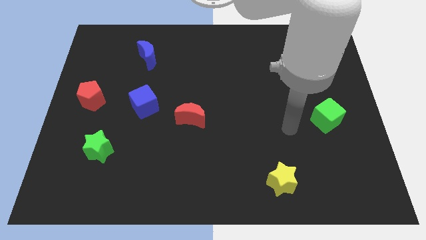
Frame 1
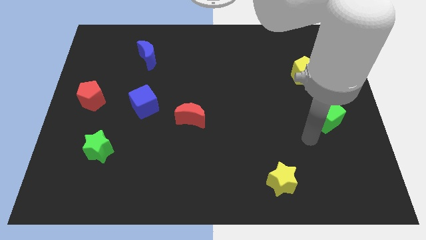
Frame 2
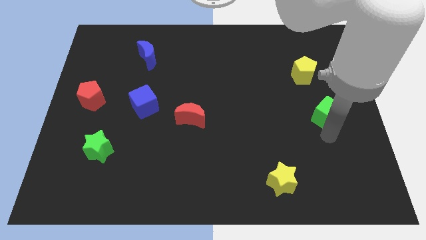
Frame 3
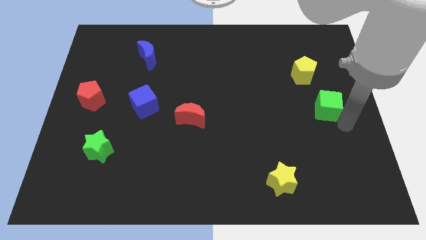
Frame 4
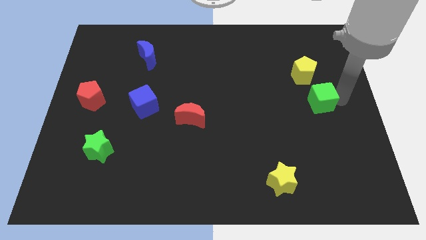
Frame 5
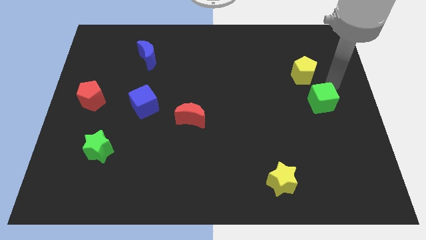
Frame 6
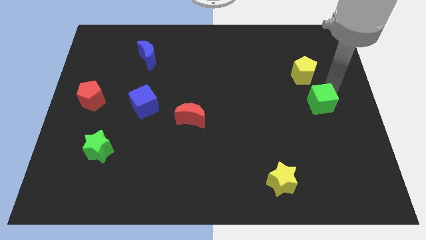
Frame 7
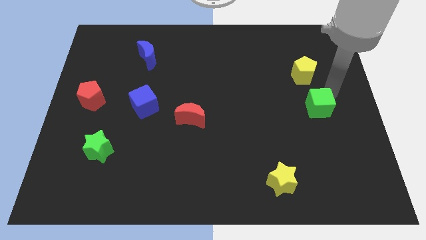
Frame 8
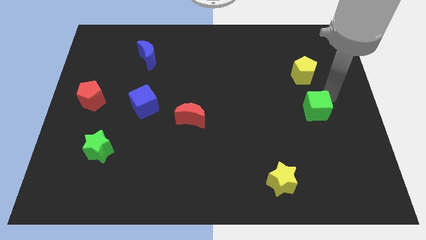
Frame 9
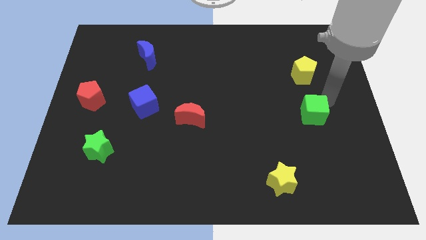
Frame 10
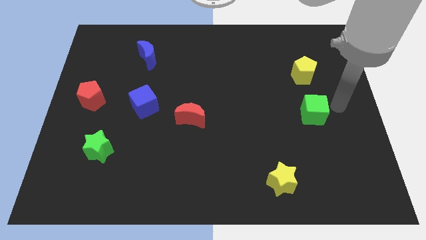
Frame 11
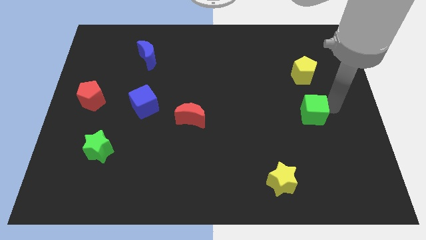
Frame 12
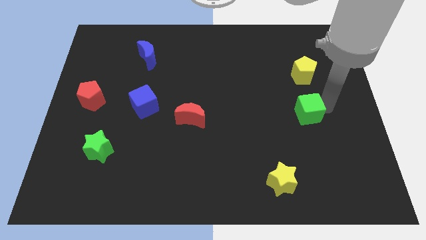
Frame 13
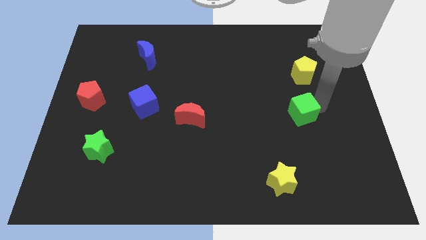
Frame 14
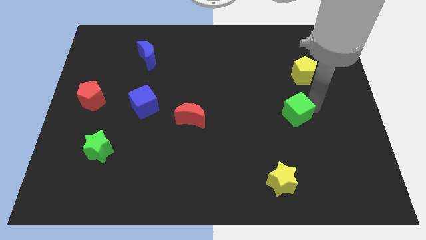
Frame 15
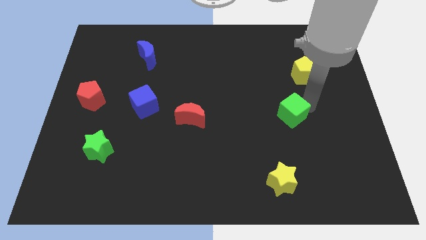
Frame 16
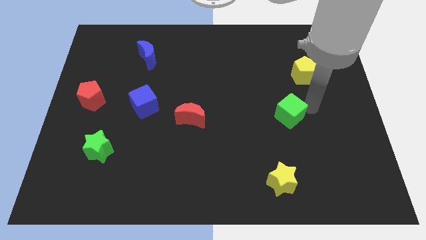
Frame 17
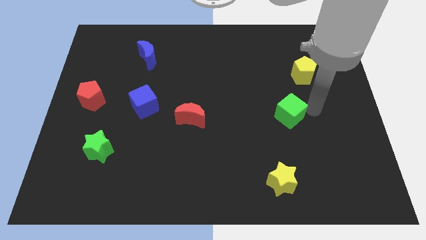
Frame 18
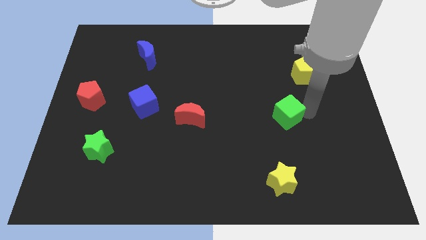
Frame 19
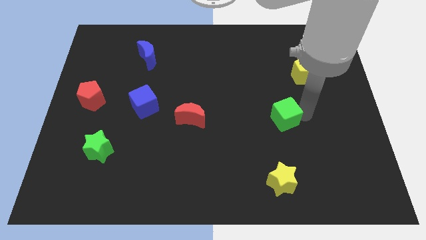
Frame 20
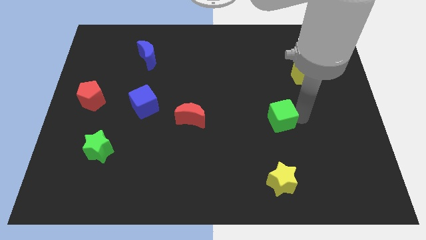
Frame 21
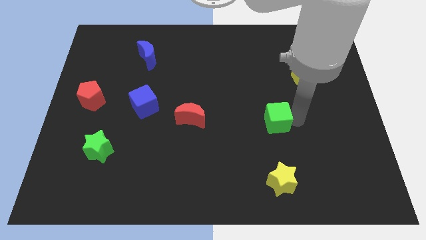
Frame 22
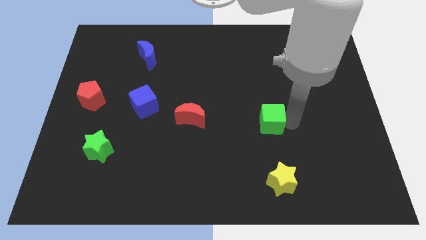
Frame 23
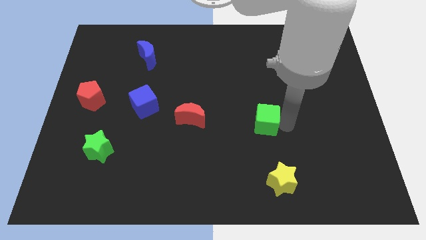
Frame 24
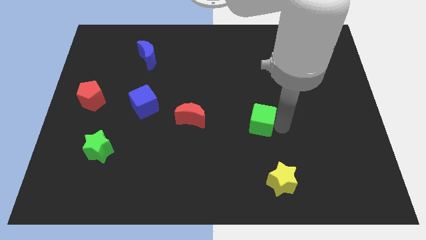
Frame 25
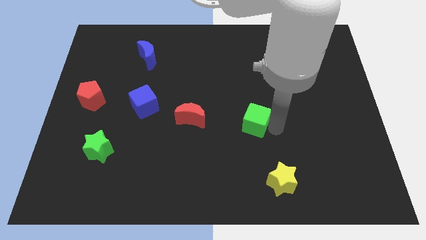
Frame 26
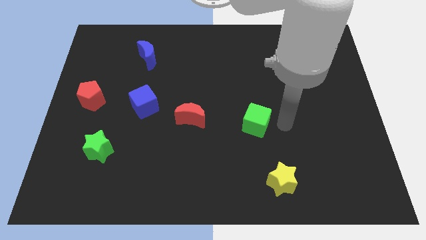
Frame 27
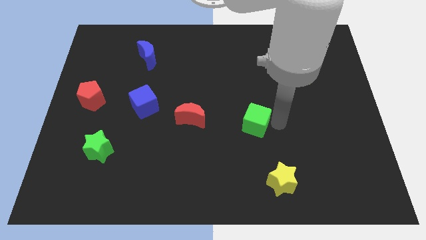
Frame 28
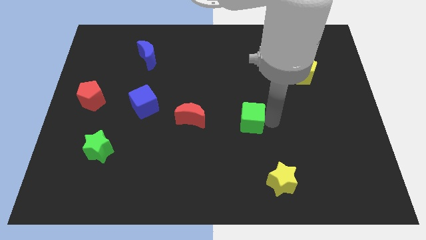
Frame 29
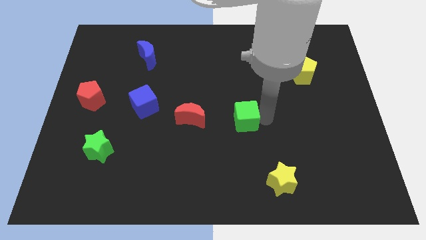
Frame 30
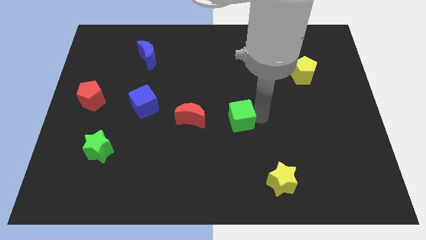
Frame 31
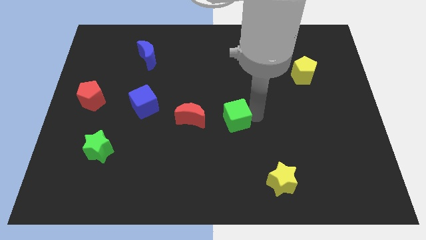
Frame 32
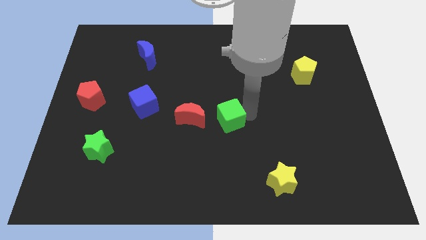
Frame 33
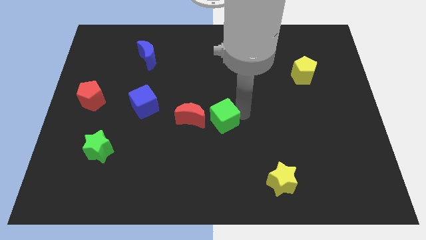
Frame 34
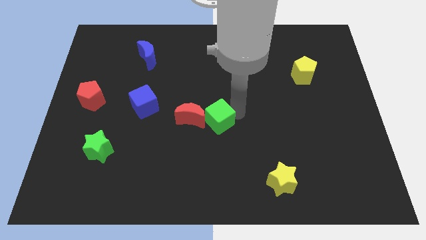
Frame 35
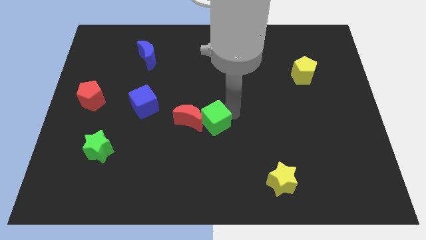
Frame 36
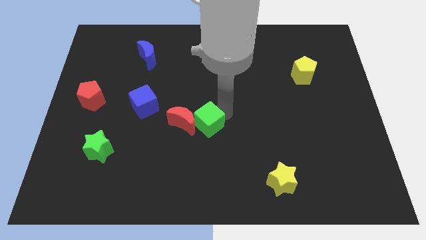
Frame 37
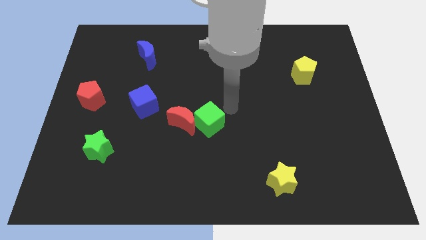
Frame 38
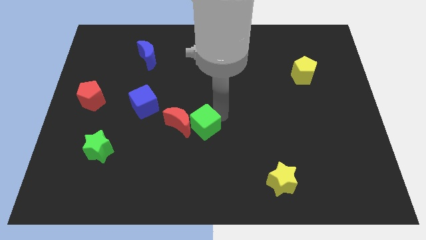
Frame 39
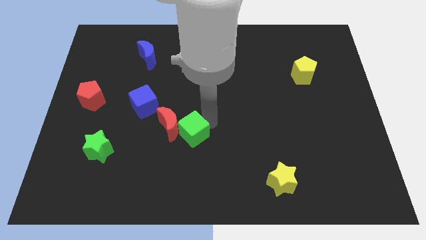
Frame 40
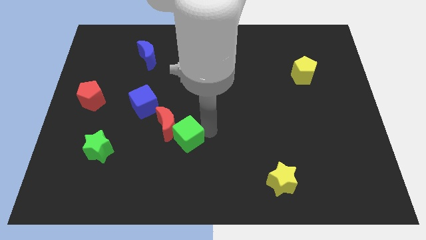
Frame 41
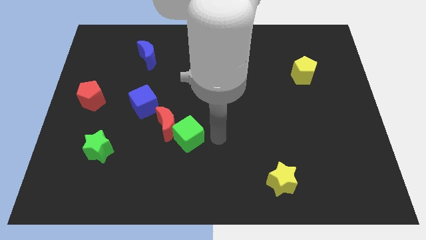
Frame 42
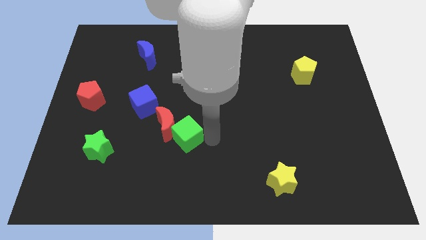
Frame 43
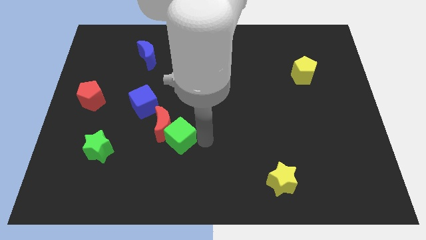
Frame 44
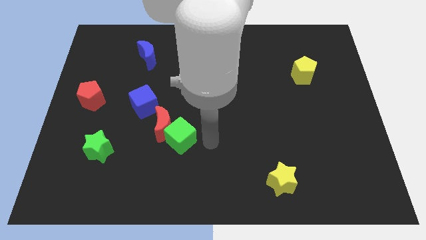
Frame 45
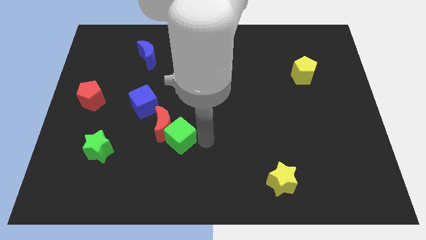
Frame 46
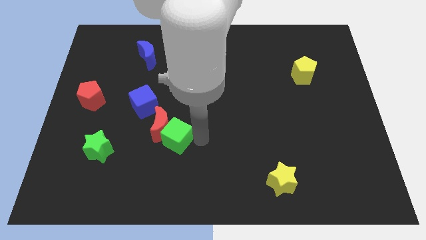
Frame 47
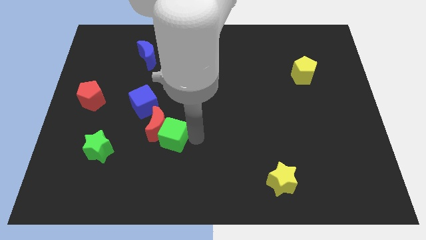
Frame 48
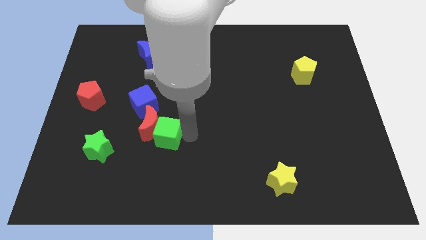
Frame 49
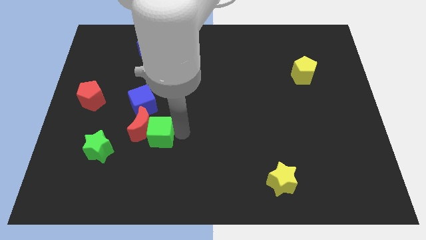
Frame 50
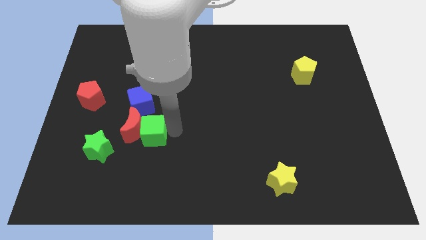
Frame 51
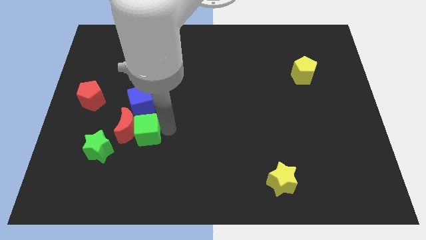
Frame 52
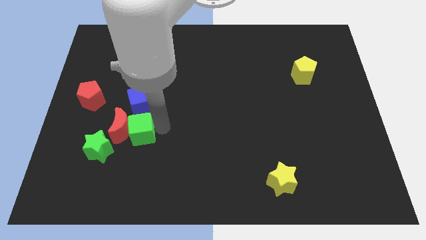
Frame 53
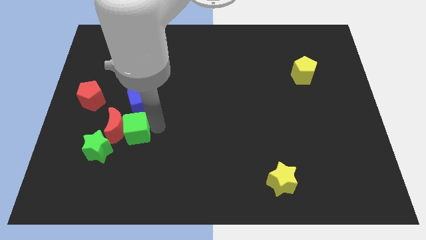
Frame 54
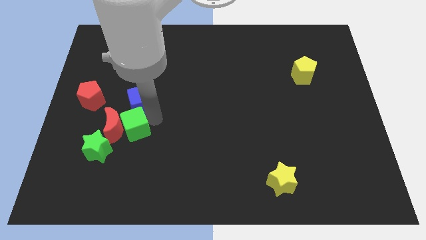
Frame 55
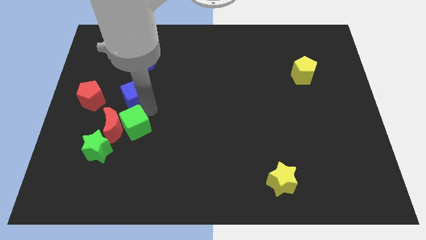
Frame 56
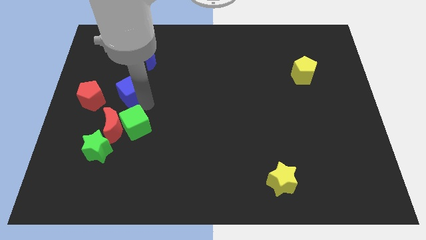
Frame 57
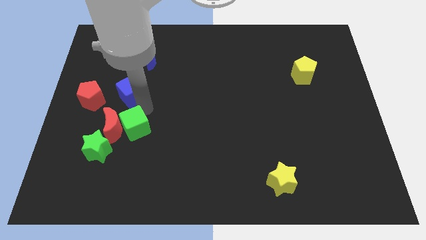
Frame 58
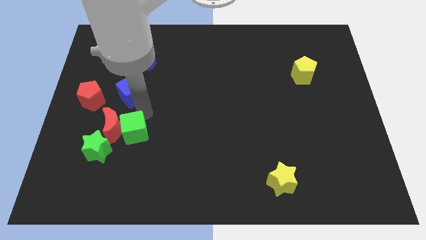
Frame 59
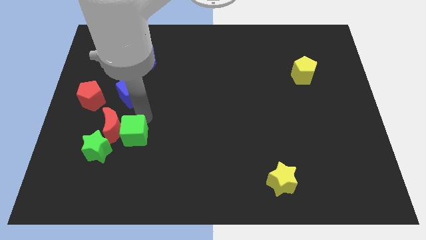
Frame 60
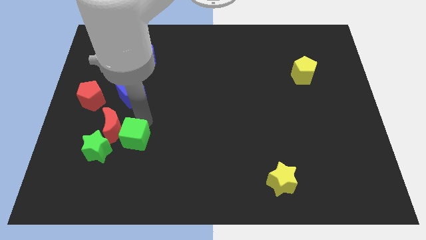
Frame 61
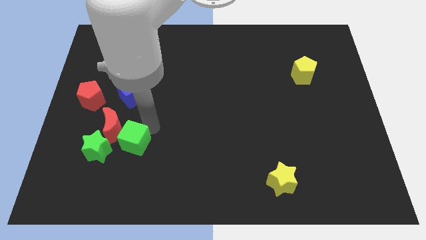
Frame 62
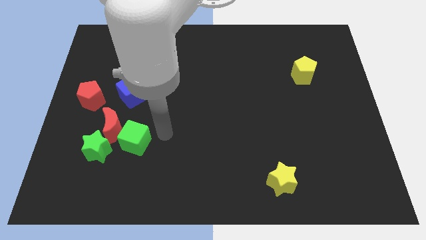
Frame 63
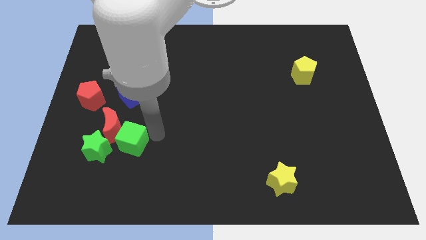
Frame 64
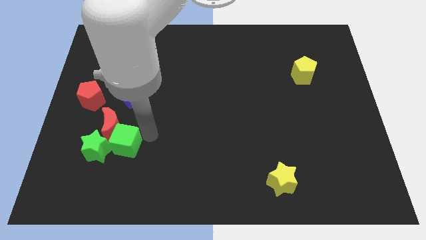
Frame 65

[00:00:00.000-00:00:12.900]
slide the green cube towards the green star

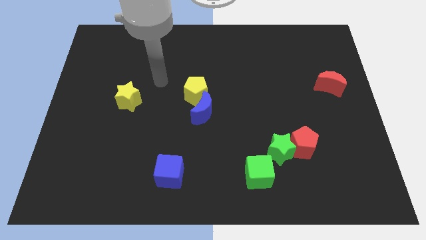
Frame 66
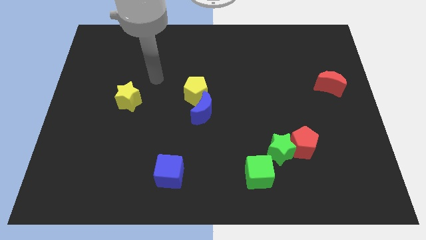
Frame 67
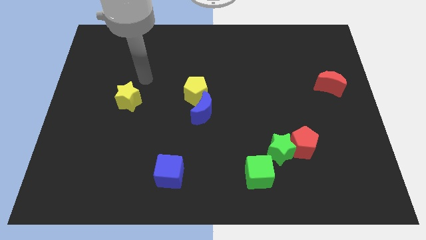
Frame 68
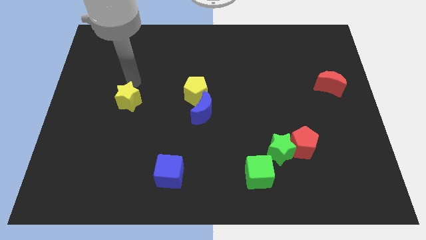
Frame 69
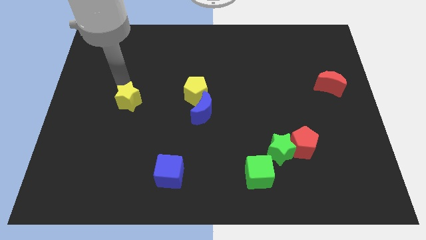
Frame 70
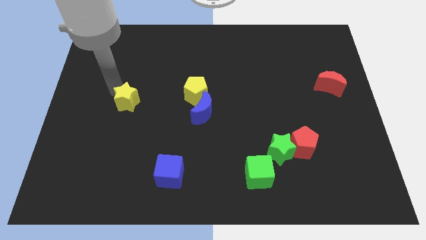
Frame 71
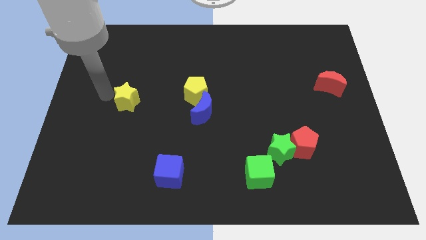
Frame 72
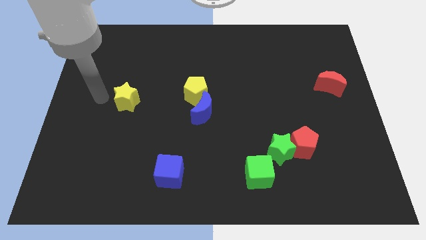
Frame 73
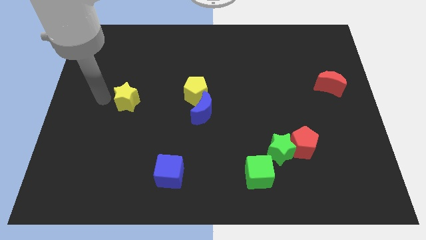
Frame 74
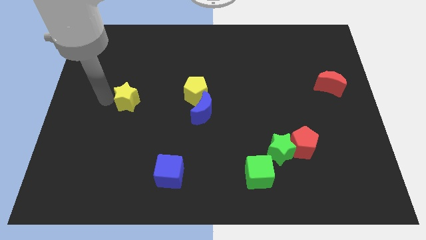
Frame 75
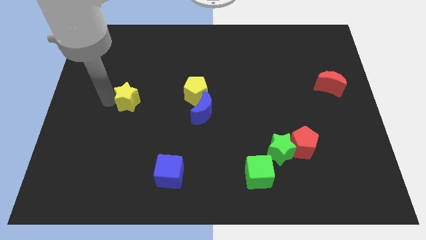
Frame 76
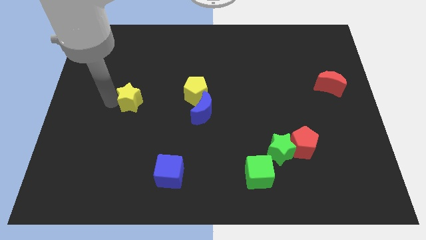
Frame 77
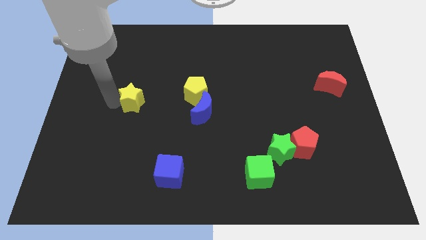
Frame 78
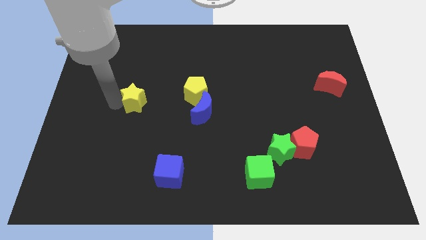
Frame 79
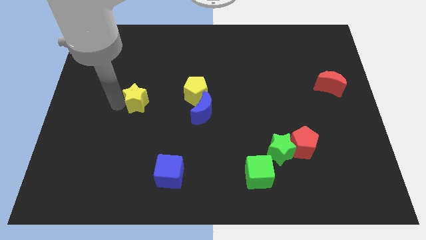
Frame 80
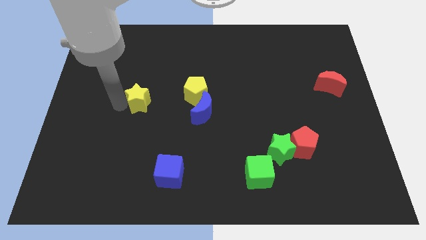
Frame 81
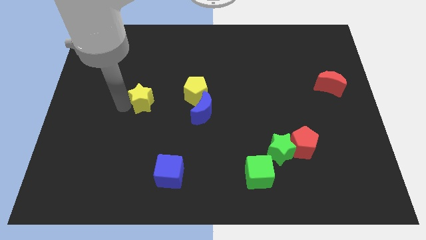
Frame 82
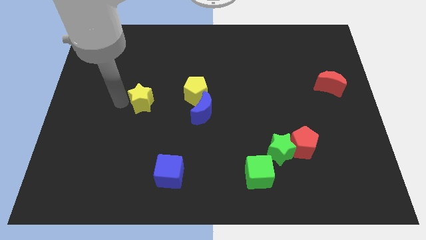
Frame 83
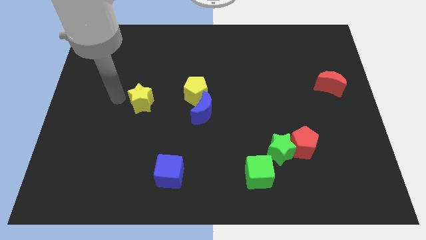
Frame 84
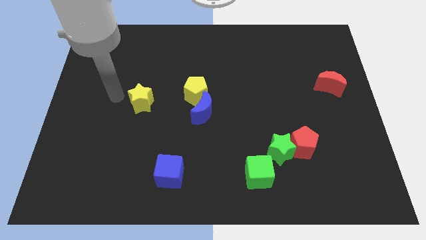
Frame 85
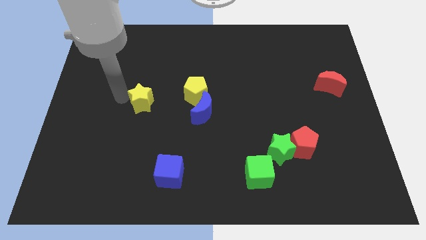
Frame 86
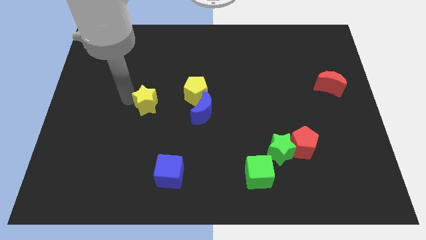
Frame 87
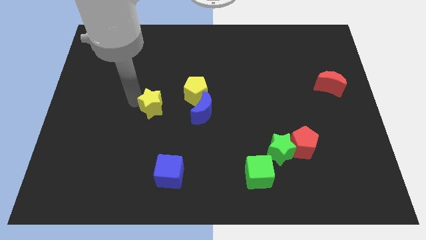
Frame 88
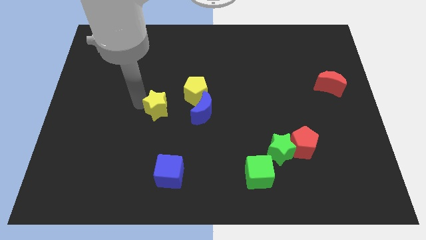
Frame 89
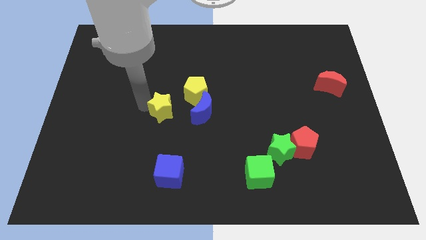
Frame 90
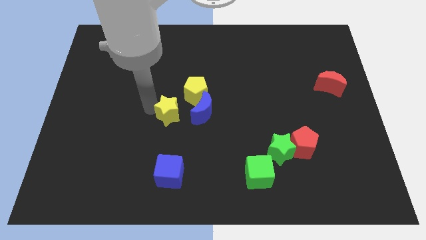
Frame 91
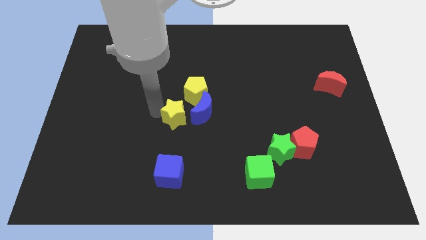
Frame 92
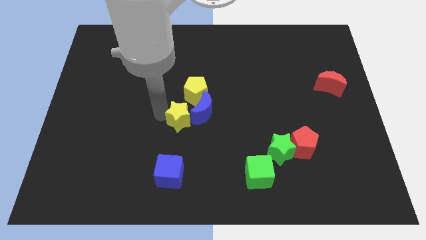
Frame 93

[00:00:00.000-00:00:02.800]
slide the yellow star to the blue moon
